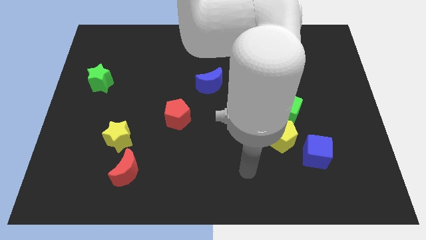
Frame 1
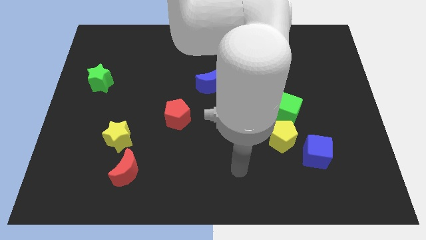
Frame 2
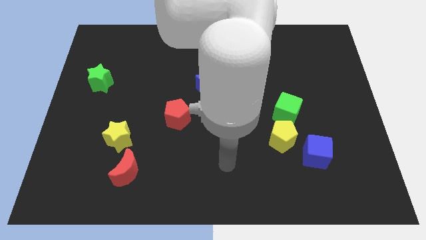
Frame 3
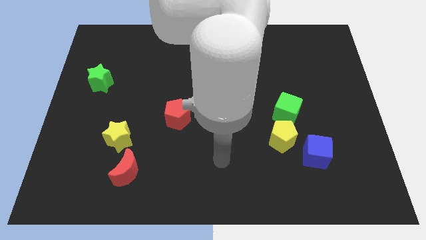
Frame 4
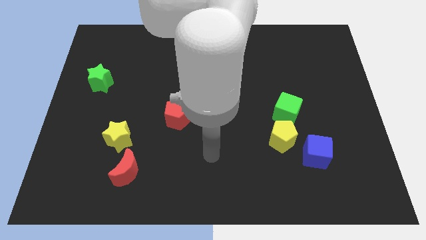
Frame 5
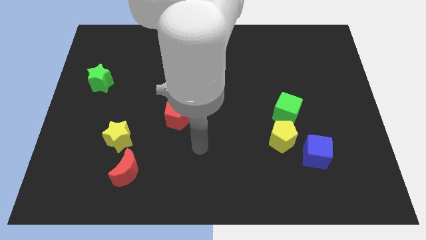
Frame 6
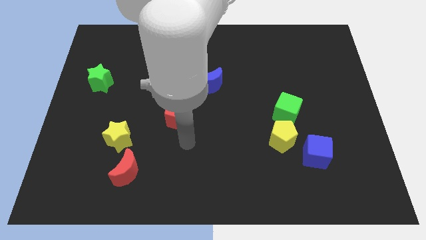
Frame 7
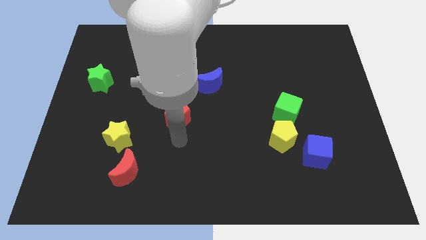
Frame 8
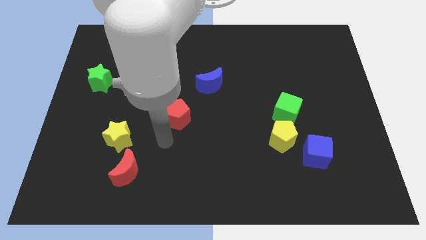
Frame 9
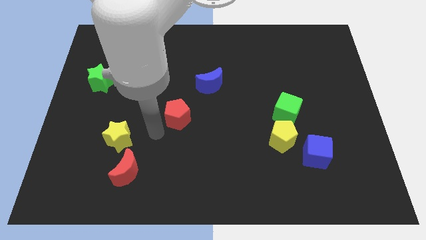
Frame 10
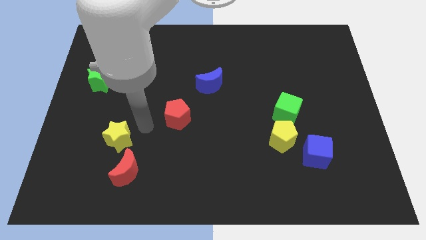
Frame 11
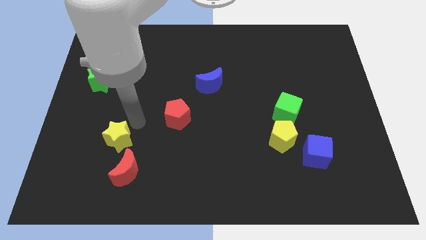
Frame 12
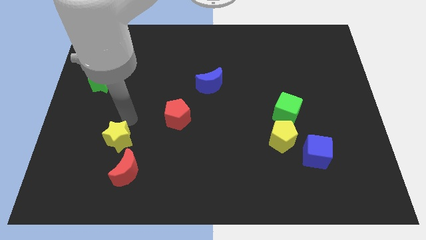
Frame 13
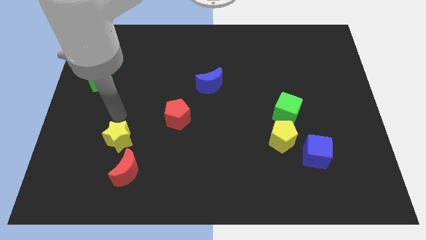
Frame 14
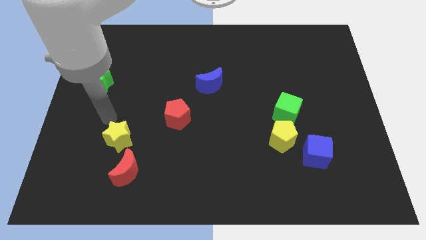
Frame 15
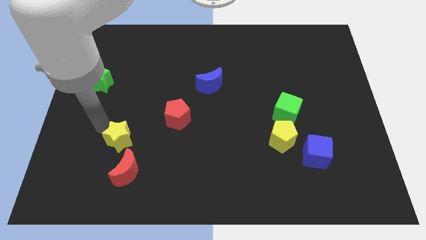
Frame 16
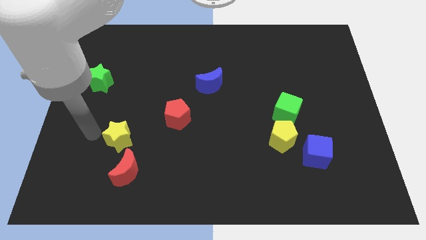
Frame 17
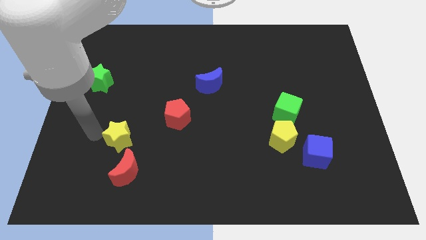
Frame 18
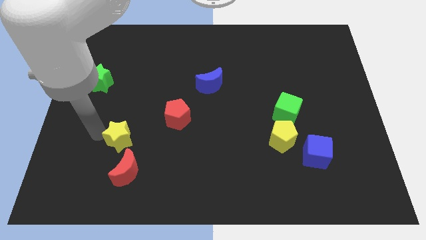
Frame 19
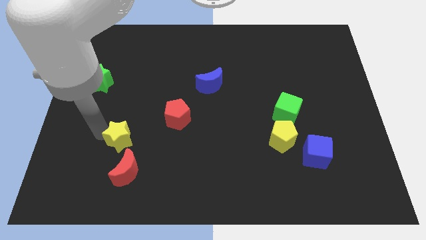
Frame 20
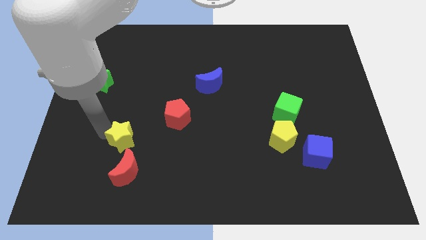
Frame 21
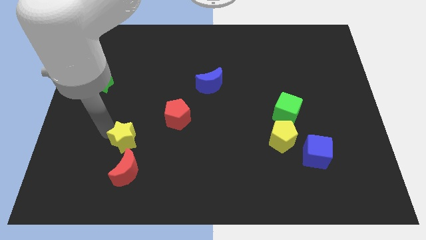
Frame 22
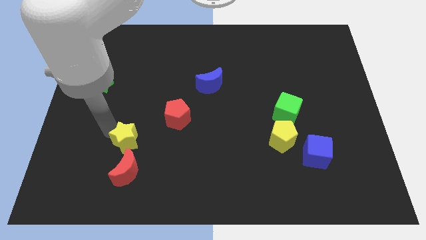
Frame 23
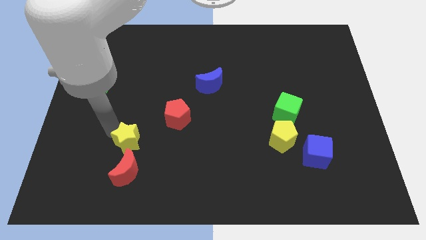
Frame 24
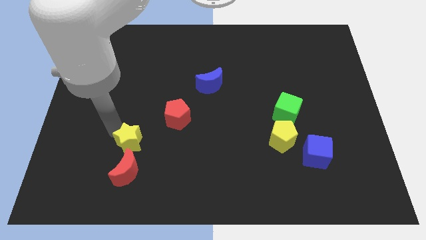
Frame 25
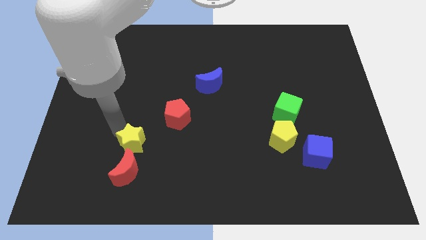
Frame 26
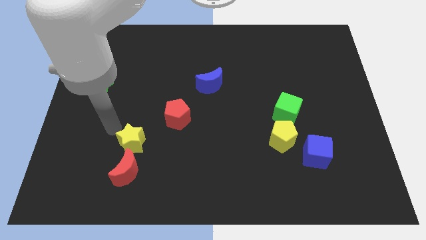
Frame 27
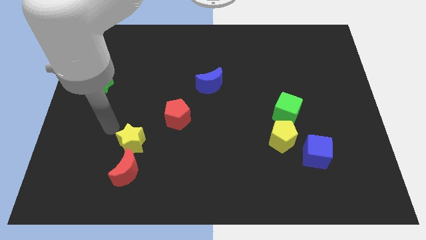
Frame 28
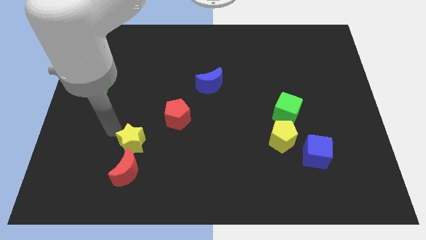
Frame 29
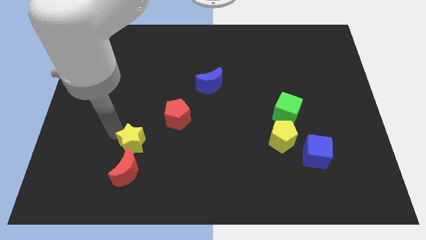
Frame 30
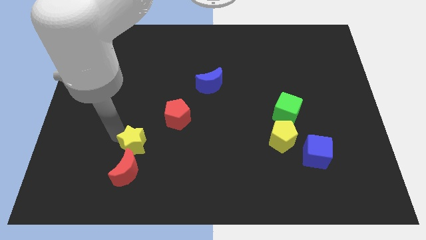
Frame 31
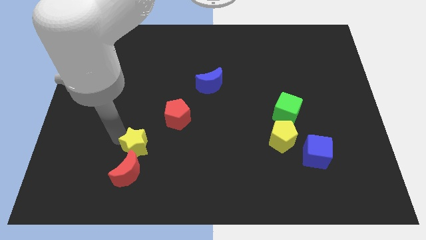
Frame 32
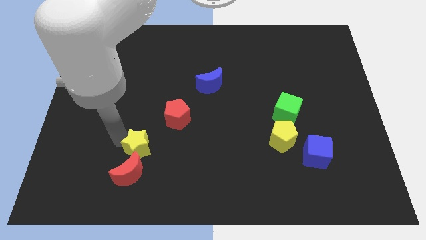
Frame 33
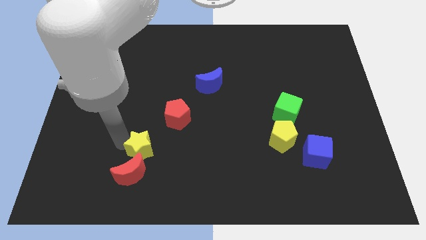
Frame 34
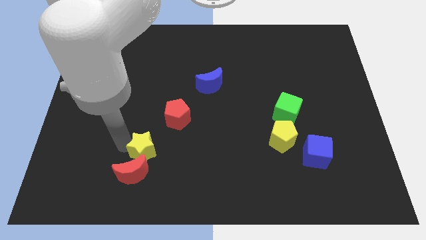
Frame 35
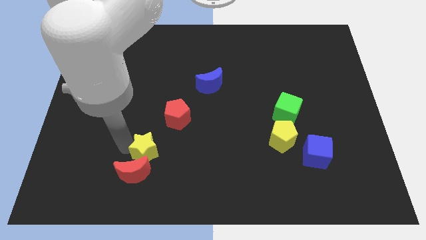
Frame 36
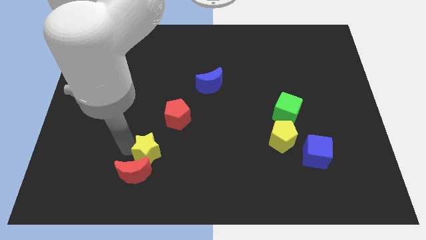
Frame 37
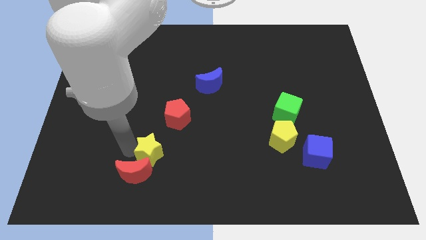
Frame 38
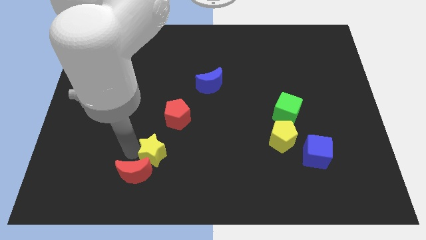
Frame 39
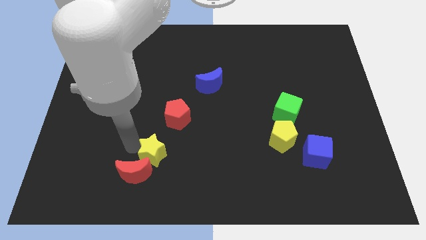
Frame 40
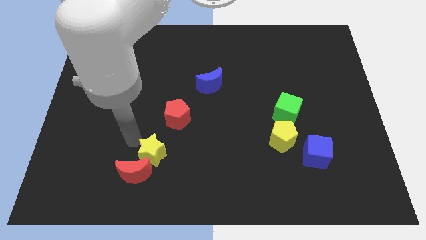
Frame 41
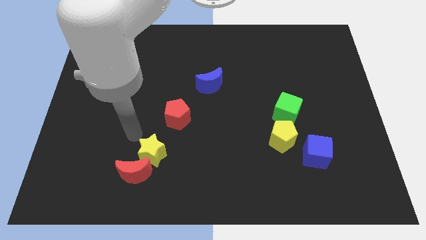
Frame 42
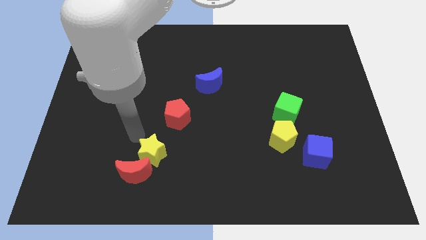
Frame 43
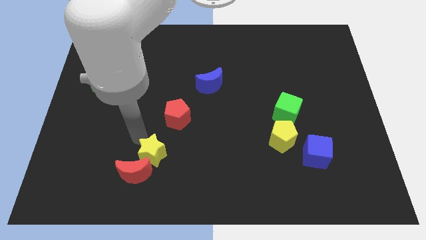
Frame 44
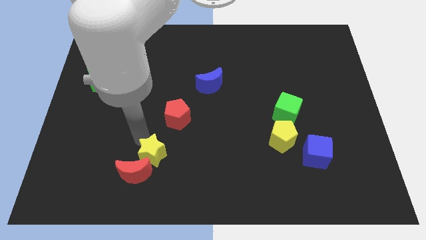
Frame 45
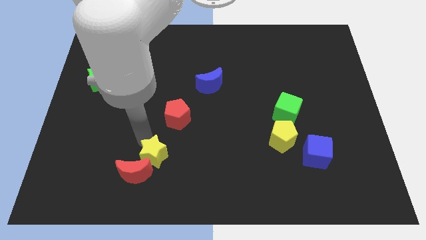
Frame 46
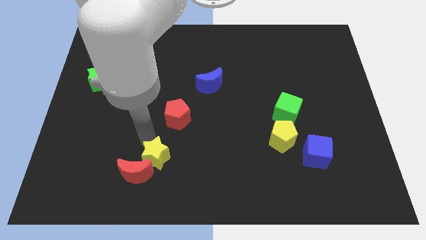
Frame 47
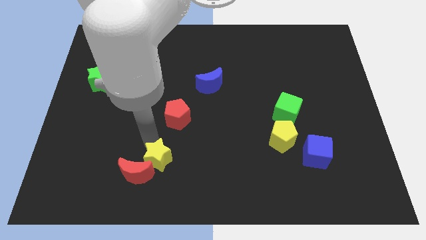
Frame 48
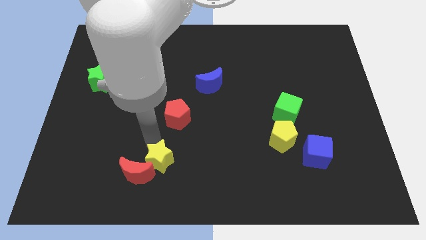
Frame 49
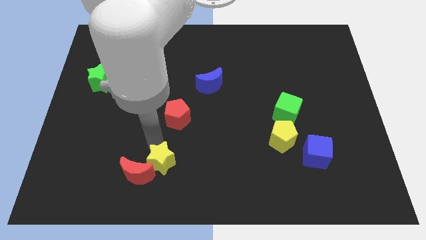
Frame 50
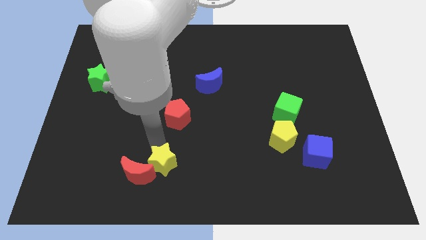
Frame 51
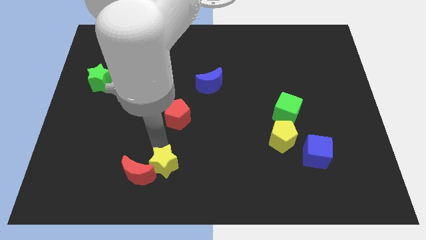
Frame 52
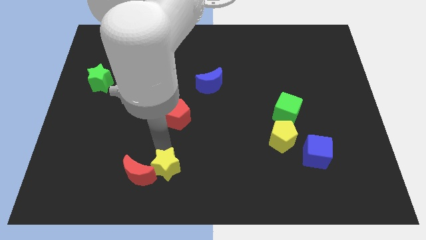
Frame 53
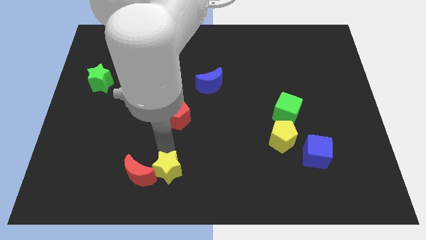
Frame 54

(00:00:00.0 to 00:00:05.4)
push the yellow star to the bottom side

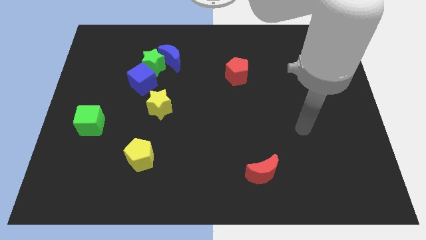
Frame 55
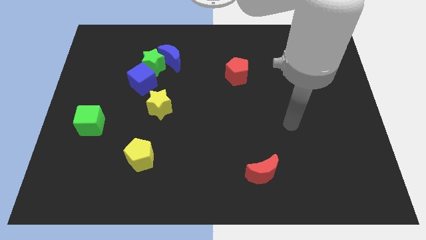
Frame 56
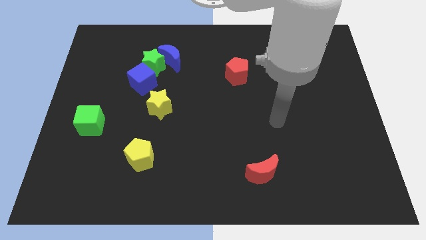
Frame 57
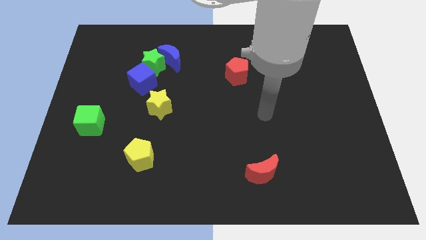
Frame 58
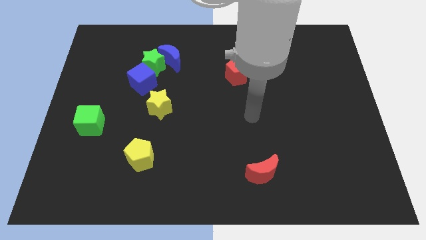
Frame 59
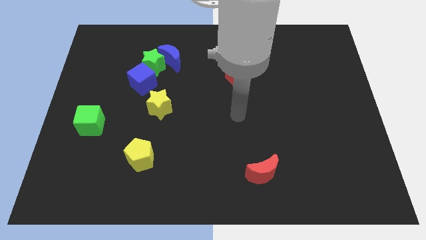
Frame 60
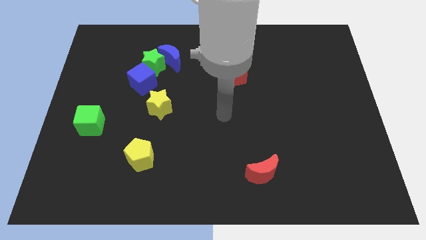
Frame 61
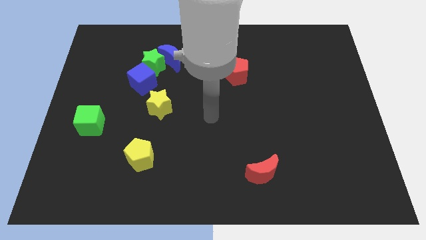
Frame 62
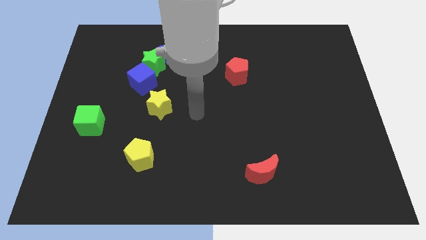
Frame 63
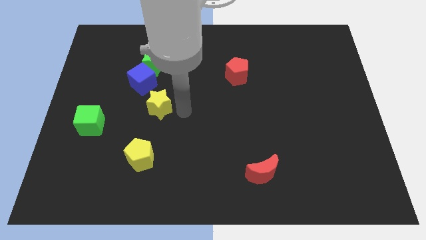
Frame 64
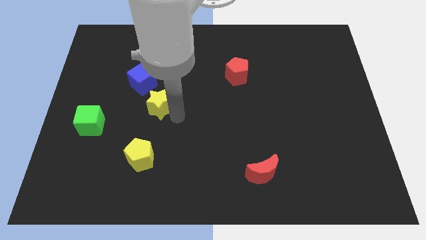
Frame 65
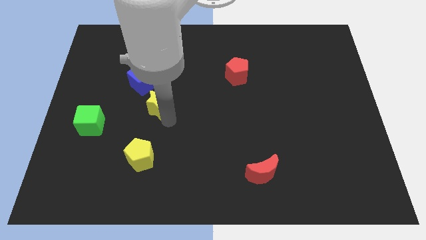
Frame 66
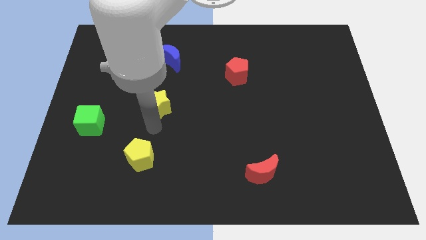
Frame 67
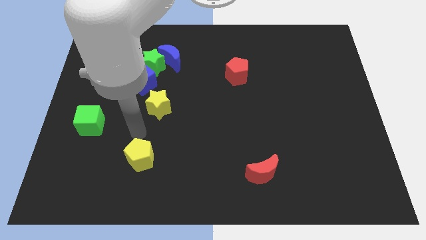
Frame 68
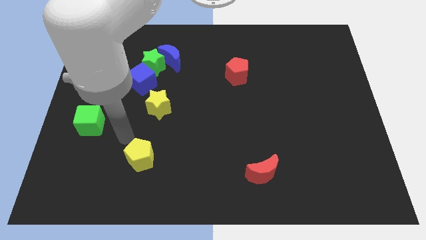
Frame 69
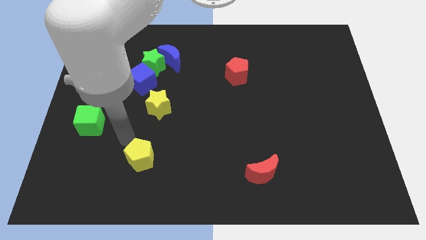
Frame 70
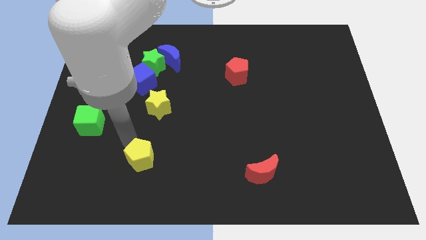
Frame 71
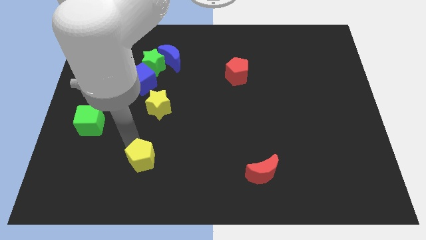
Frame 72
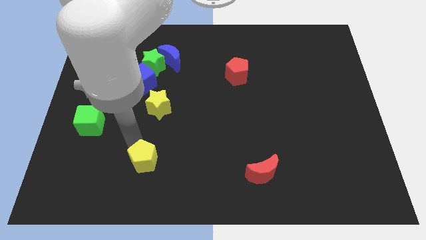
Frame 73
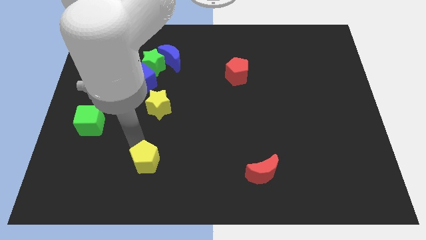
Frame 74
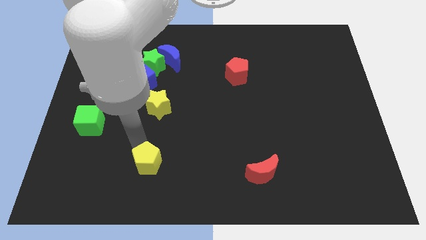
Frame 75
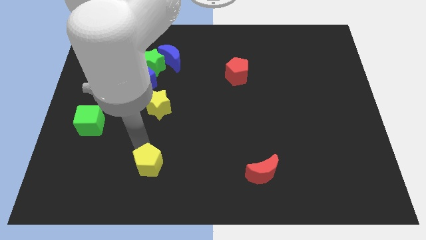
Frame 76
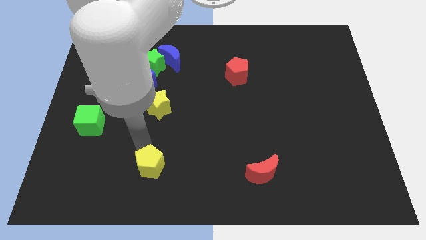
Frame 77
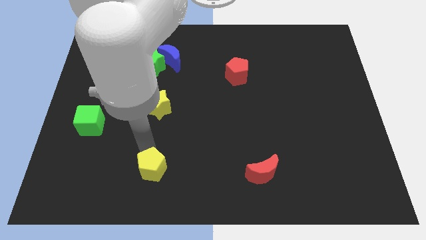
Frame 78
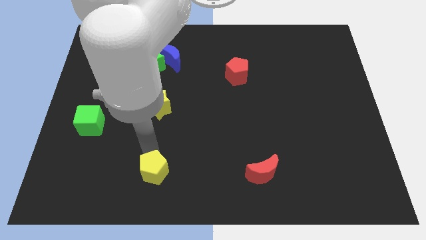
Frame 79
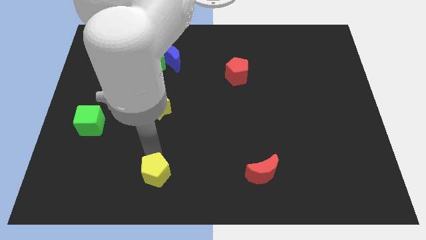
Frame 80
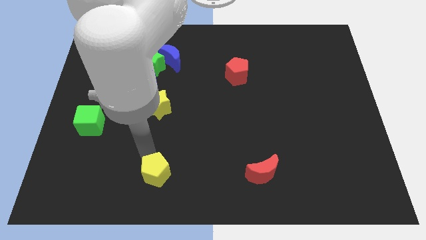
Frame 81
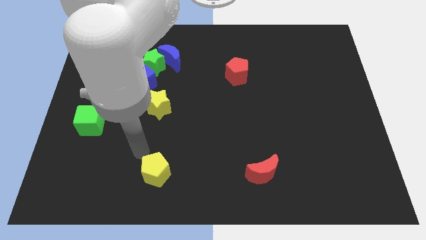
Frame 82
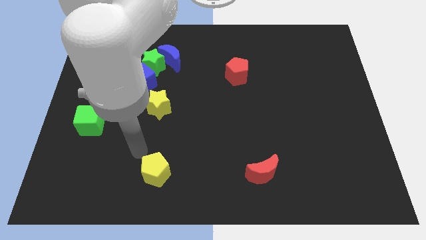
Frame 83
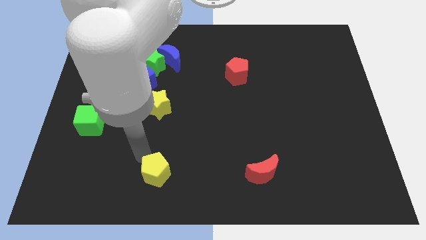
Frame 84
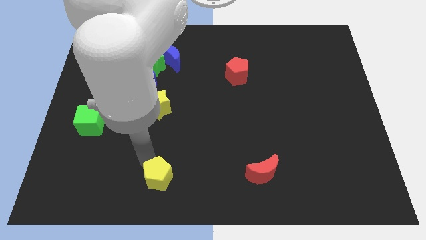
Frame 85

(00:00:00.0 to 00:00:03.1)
slide the yellow pentagon to the bottom
